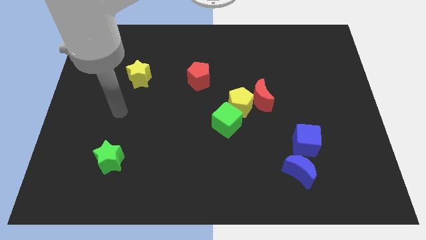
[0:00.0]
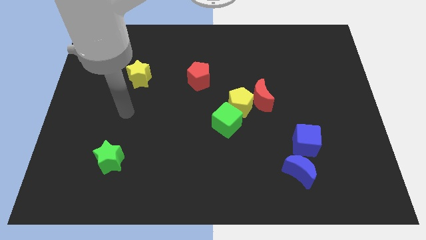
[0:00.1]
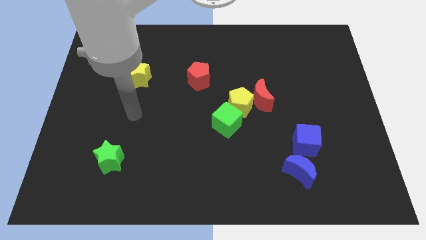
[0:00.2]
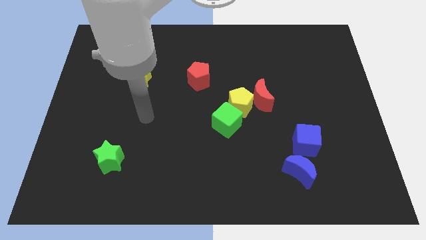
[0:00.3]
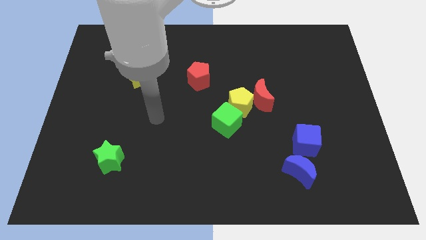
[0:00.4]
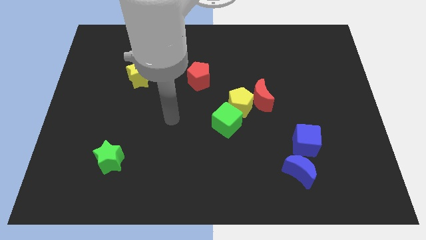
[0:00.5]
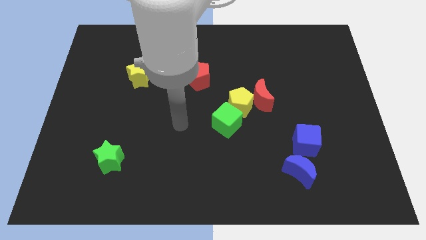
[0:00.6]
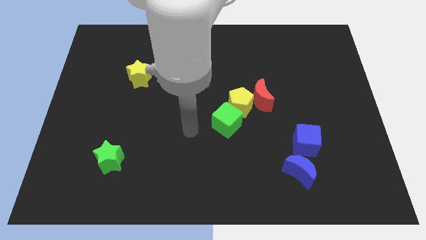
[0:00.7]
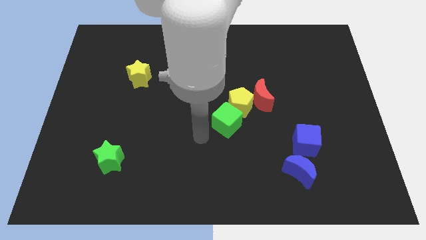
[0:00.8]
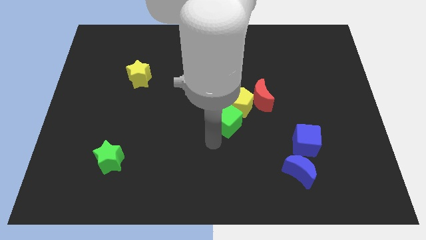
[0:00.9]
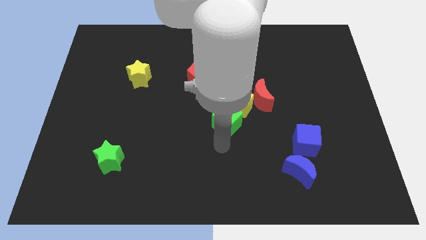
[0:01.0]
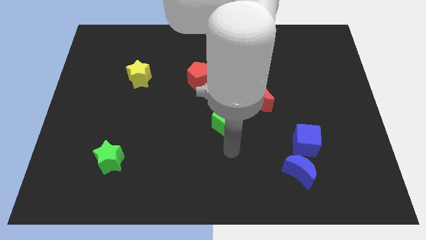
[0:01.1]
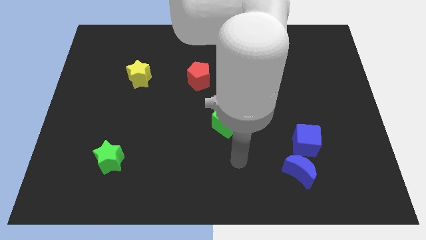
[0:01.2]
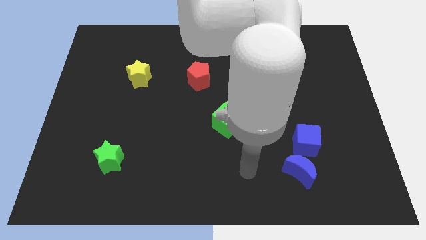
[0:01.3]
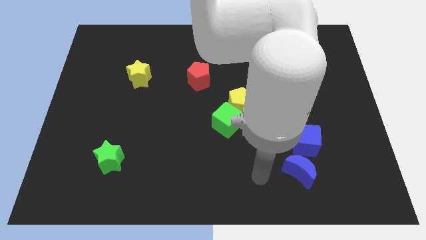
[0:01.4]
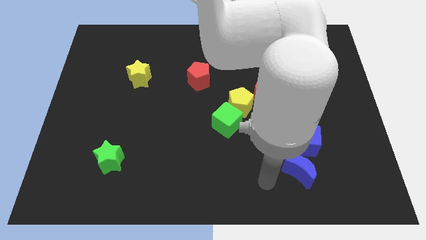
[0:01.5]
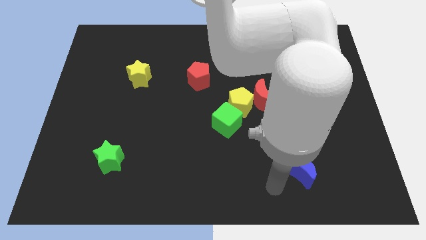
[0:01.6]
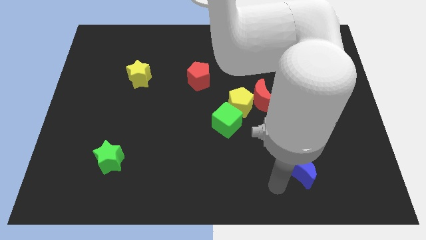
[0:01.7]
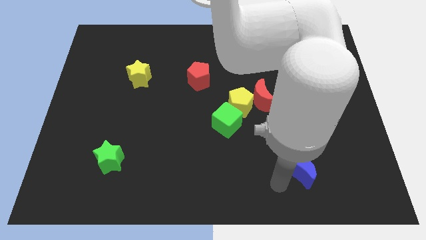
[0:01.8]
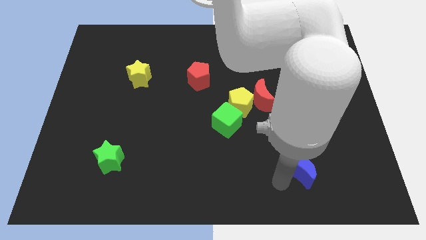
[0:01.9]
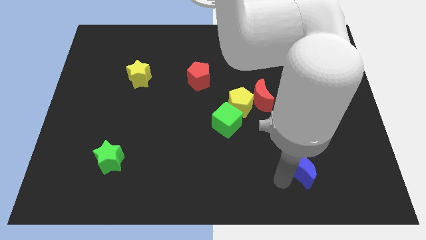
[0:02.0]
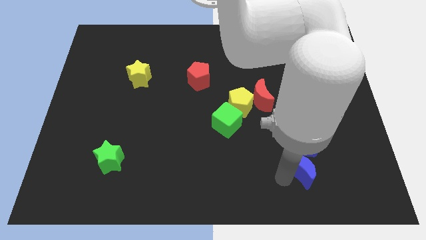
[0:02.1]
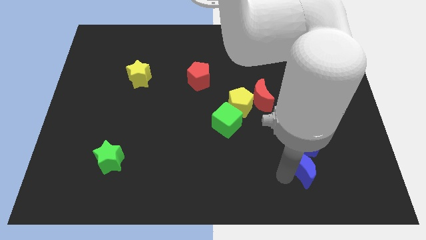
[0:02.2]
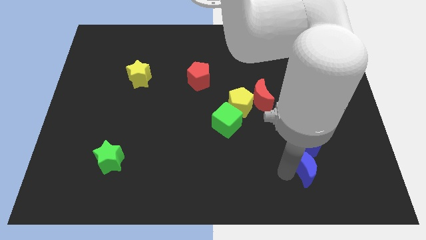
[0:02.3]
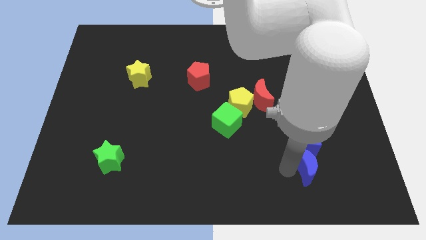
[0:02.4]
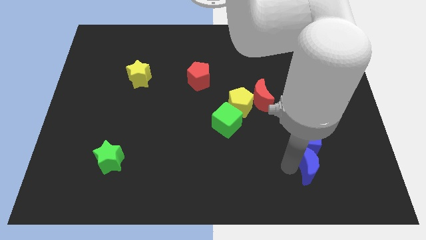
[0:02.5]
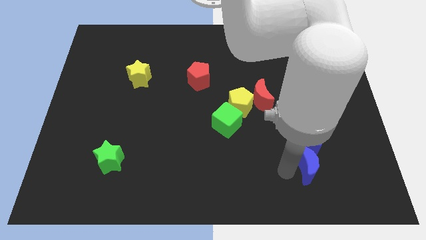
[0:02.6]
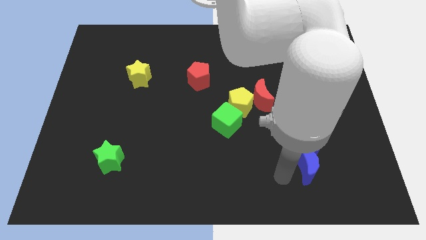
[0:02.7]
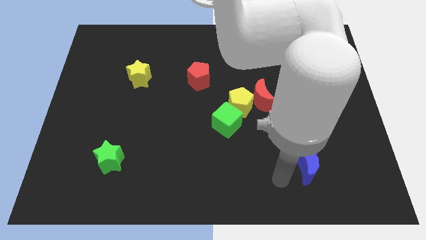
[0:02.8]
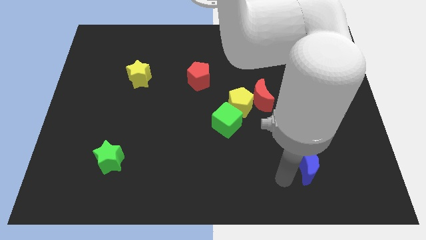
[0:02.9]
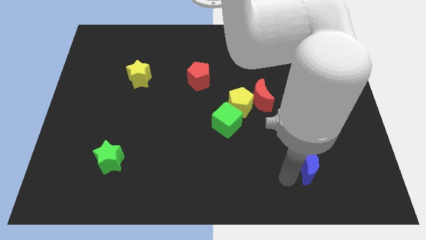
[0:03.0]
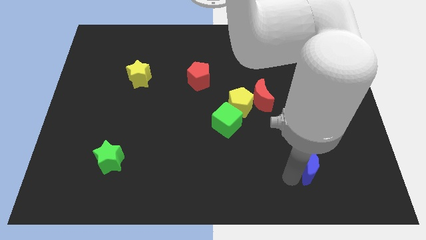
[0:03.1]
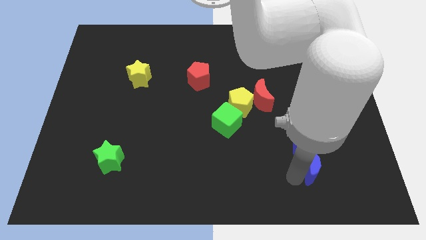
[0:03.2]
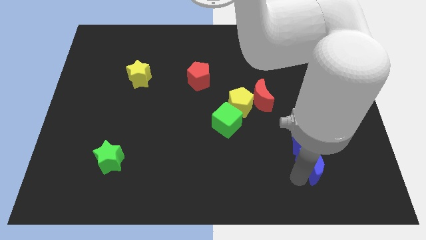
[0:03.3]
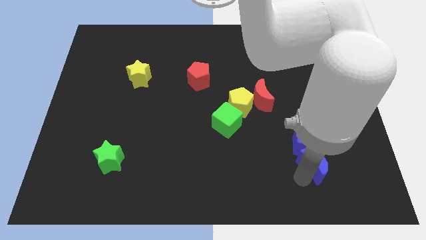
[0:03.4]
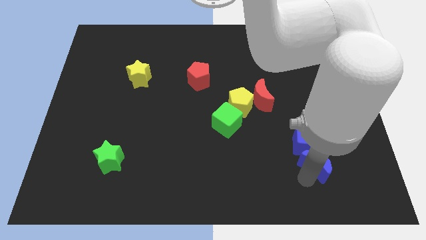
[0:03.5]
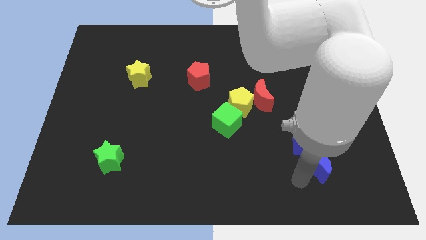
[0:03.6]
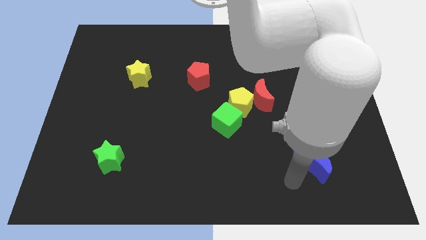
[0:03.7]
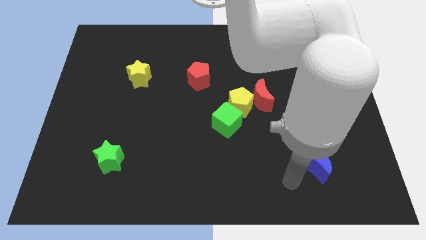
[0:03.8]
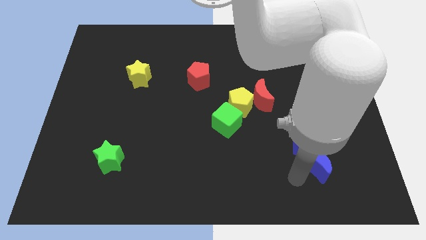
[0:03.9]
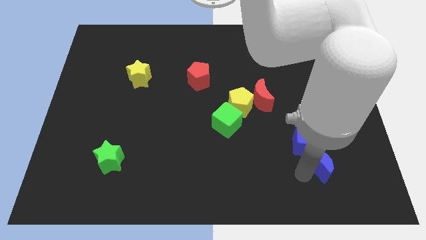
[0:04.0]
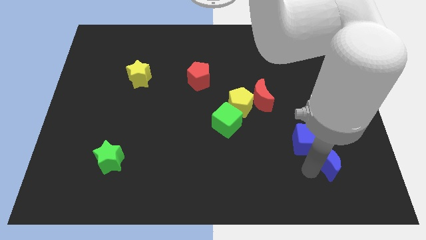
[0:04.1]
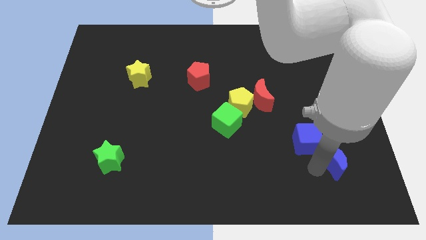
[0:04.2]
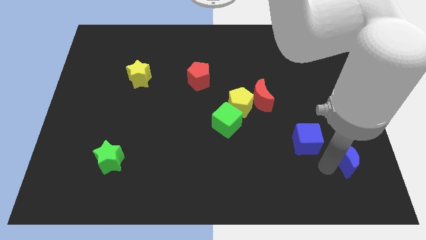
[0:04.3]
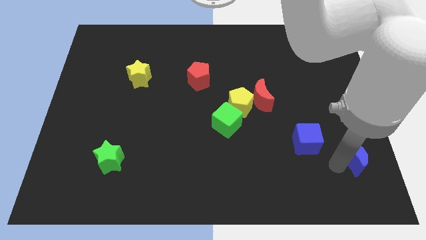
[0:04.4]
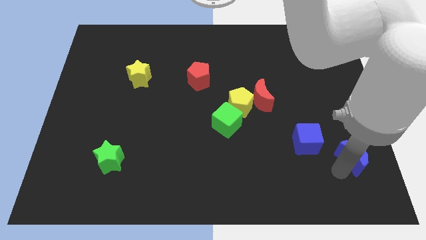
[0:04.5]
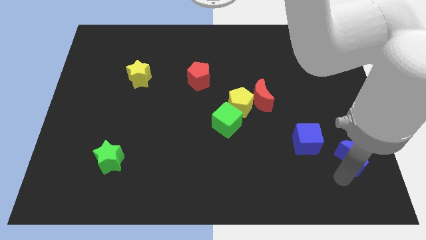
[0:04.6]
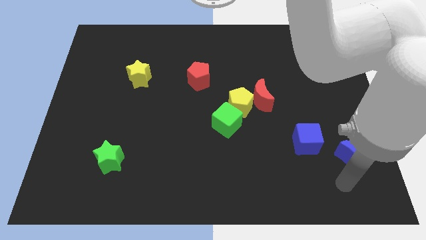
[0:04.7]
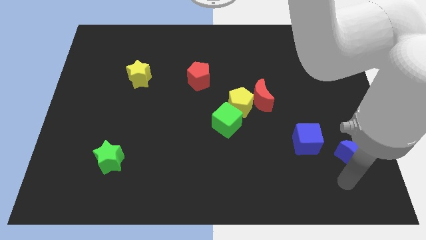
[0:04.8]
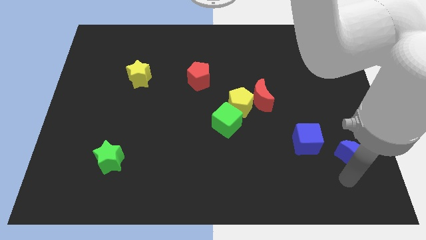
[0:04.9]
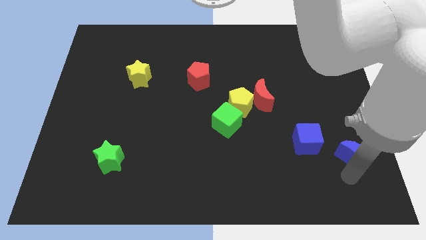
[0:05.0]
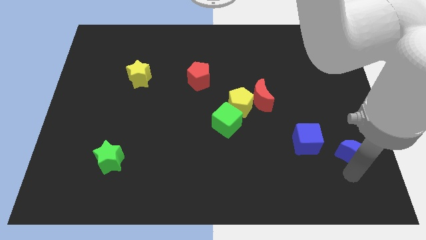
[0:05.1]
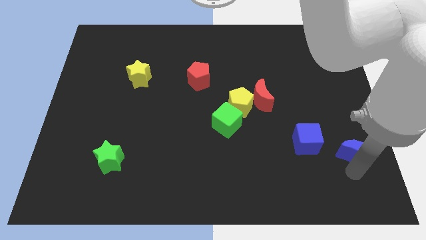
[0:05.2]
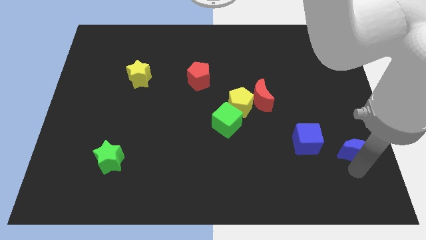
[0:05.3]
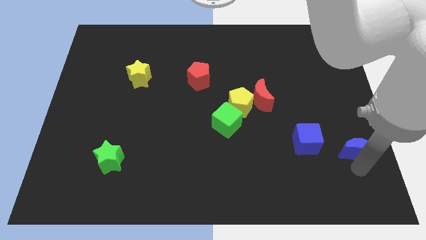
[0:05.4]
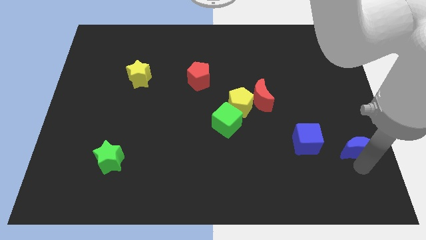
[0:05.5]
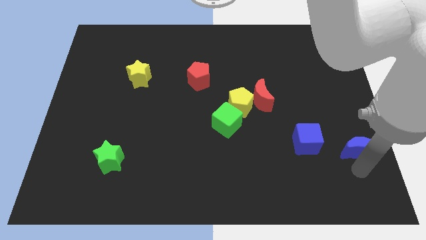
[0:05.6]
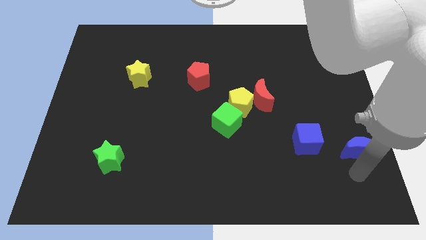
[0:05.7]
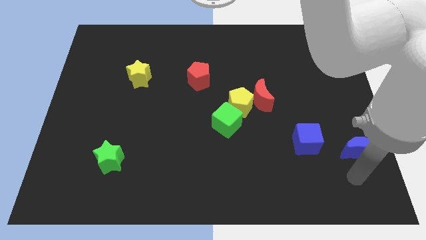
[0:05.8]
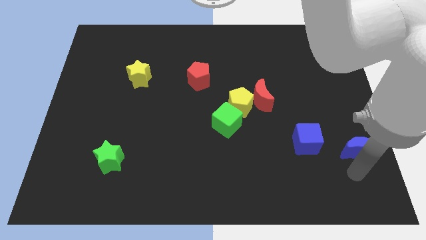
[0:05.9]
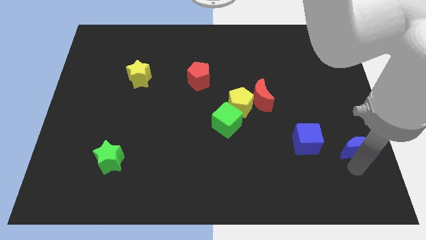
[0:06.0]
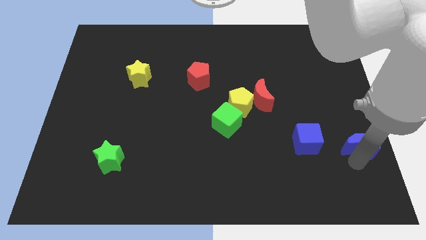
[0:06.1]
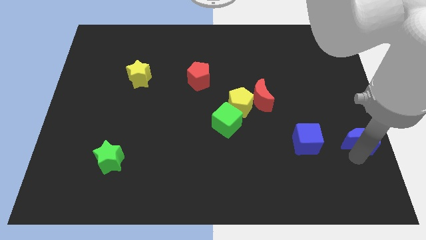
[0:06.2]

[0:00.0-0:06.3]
slide the blue moon to the right side of the board
